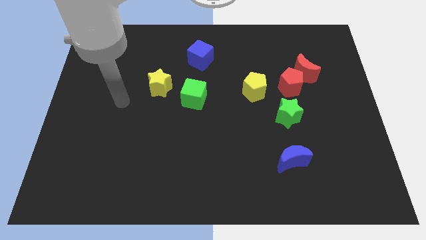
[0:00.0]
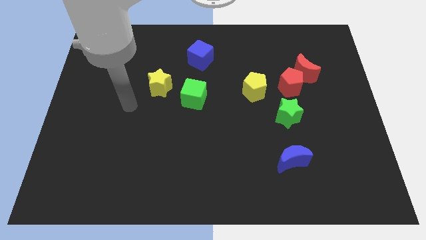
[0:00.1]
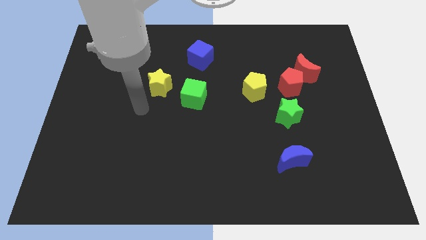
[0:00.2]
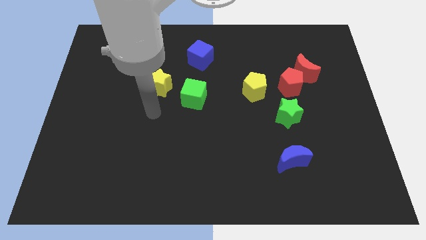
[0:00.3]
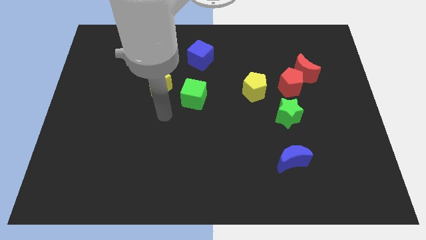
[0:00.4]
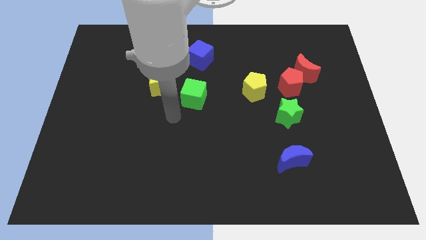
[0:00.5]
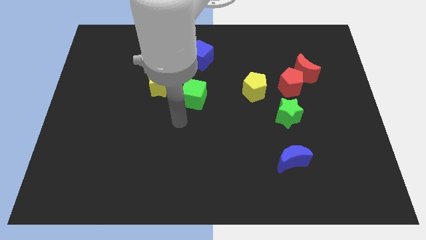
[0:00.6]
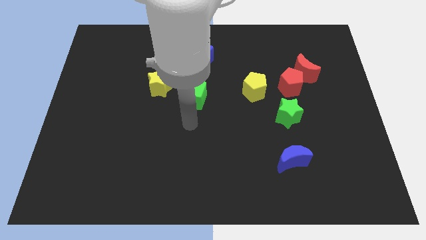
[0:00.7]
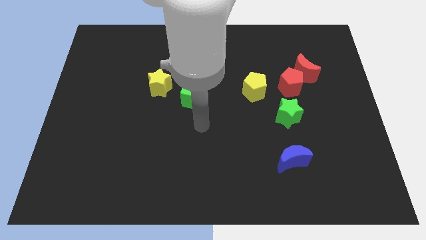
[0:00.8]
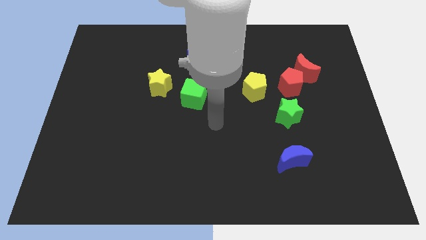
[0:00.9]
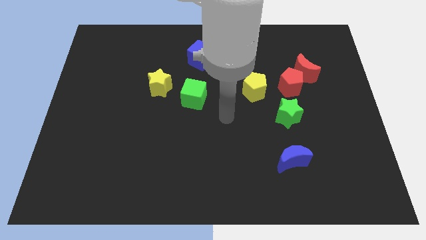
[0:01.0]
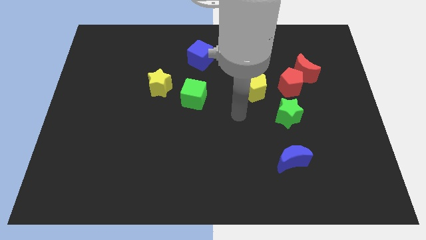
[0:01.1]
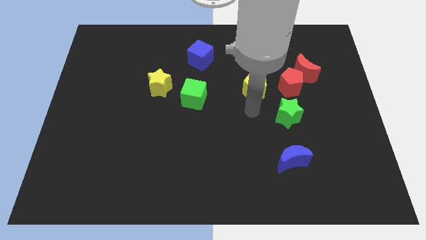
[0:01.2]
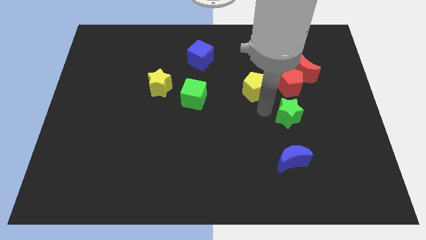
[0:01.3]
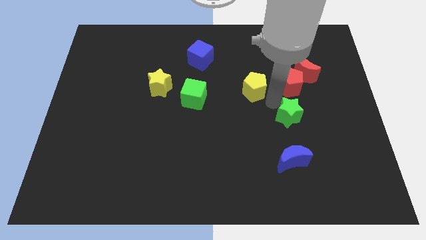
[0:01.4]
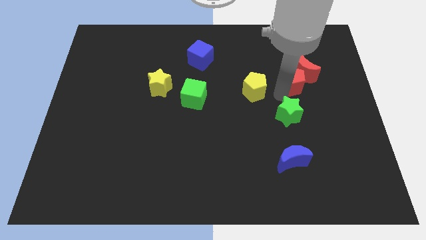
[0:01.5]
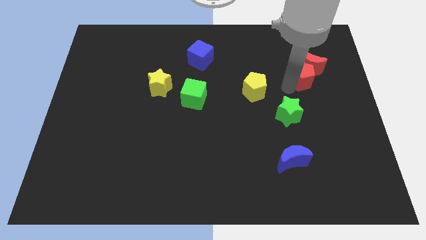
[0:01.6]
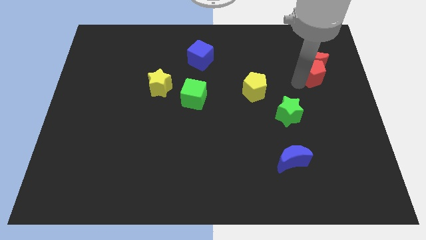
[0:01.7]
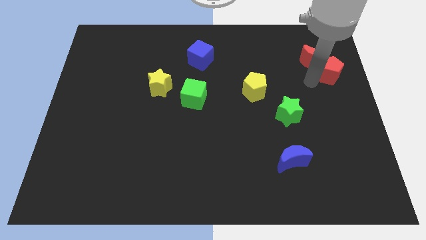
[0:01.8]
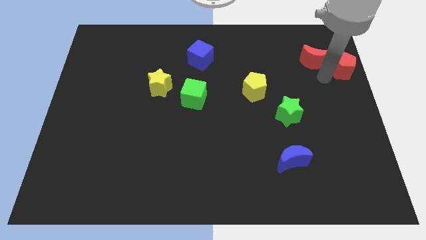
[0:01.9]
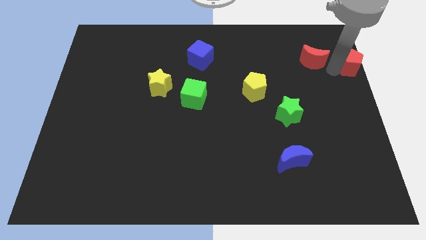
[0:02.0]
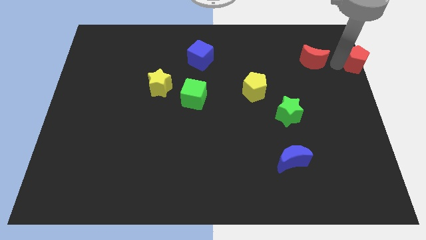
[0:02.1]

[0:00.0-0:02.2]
separate the red moon from the red pentagon

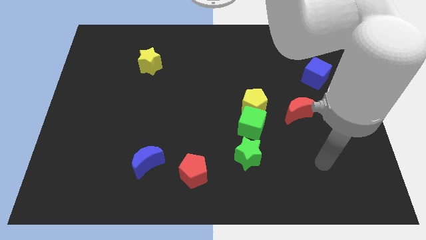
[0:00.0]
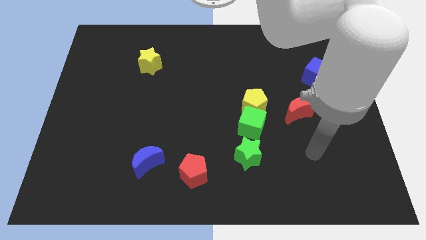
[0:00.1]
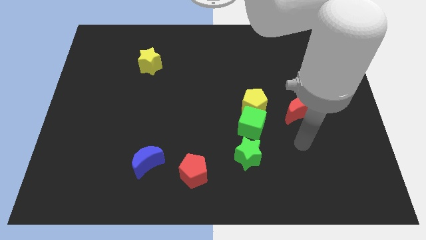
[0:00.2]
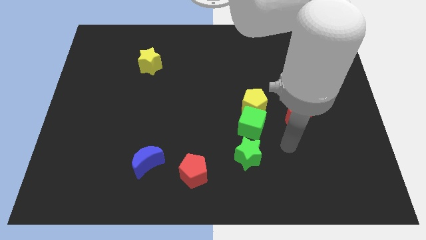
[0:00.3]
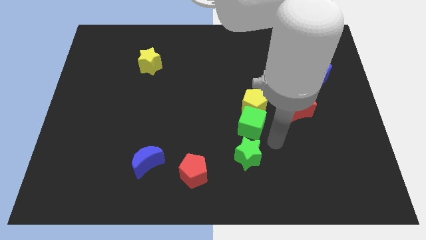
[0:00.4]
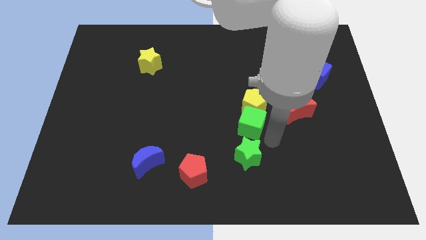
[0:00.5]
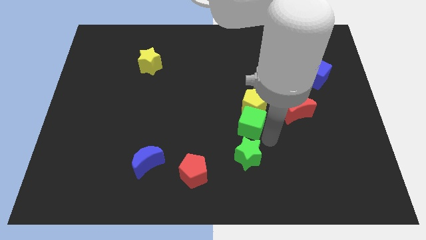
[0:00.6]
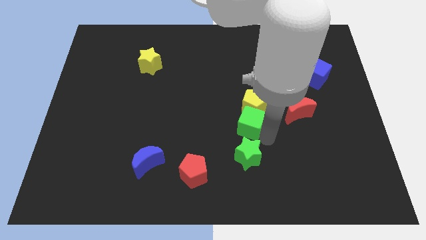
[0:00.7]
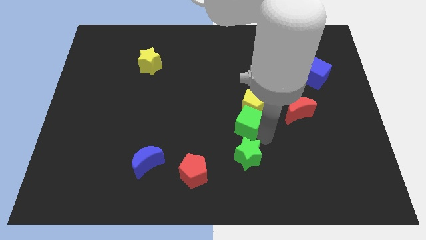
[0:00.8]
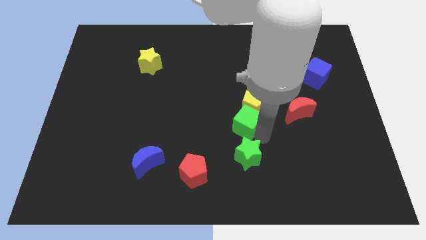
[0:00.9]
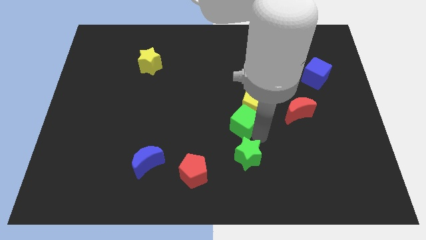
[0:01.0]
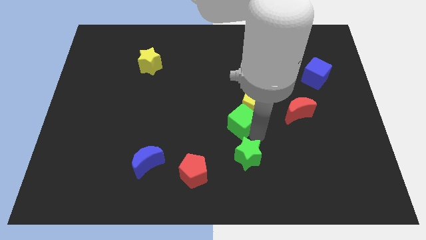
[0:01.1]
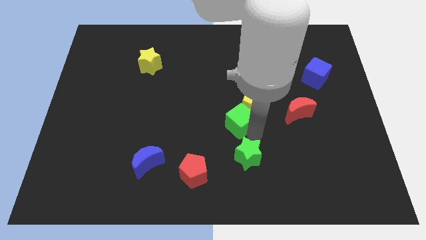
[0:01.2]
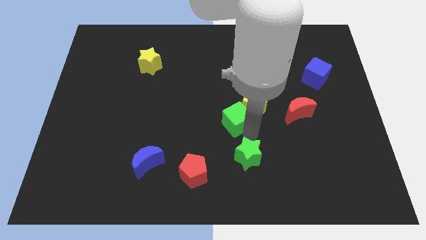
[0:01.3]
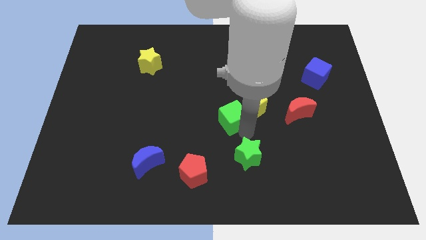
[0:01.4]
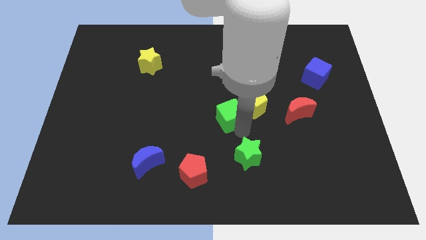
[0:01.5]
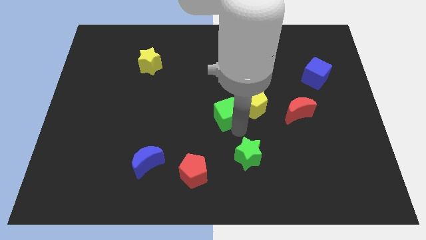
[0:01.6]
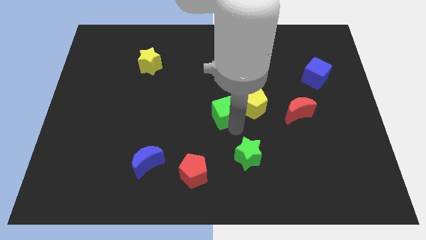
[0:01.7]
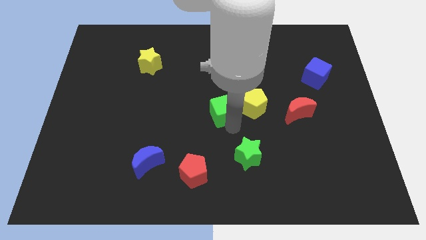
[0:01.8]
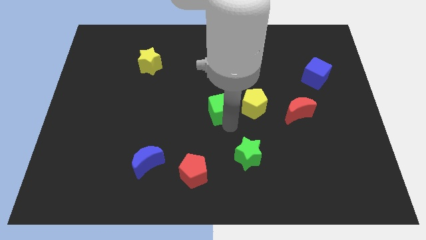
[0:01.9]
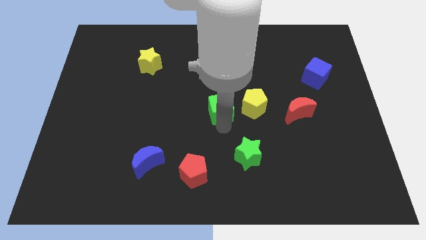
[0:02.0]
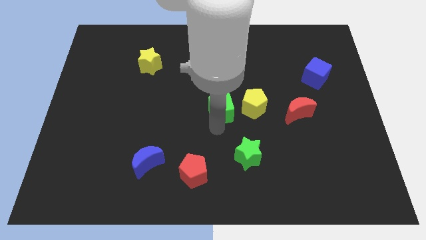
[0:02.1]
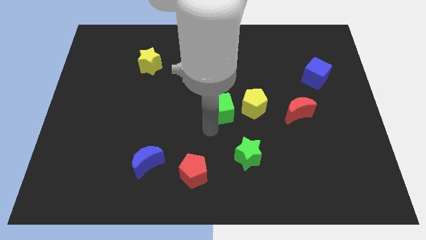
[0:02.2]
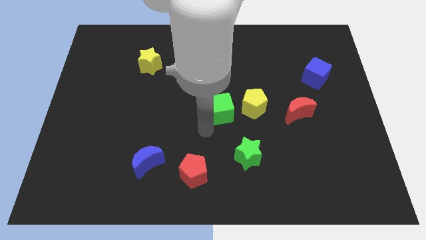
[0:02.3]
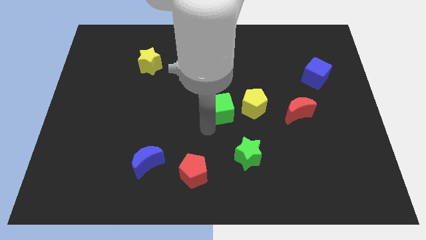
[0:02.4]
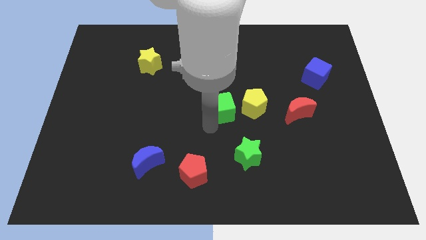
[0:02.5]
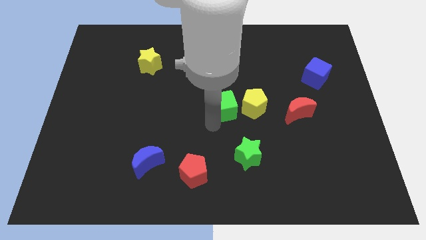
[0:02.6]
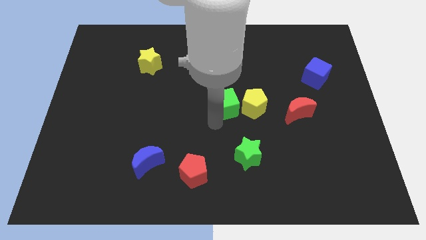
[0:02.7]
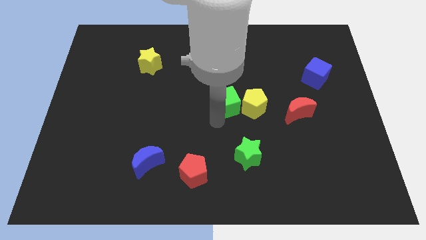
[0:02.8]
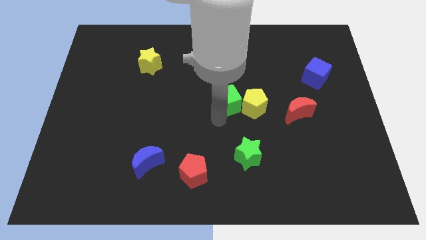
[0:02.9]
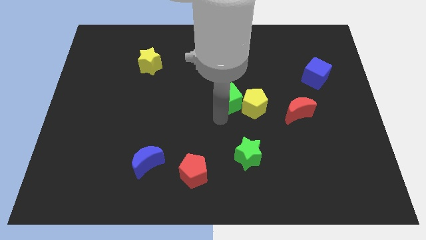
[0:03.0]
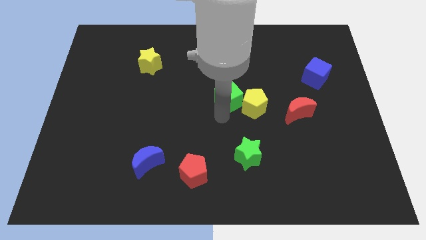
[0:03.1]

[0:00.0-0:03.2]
separate the green cube from the yellow pentagon and green star

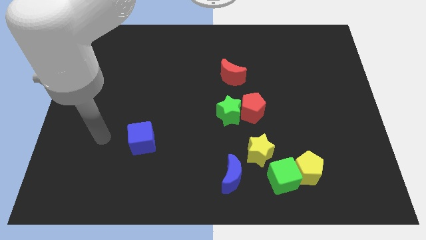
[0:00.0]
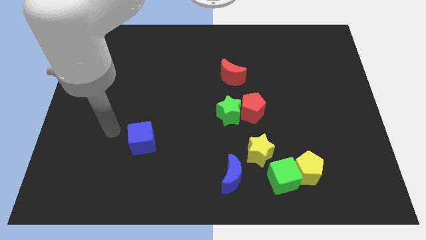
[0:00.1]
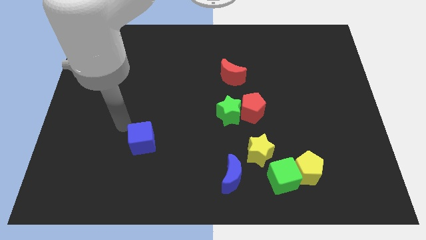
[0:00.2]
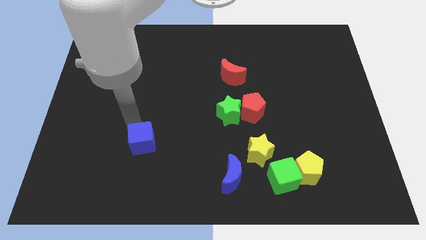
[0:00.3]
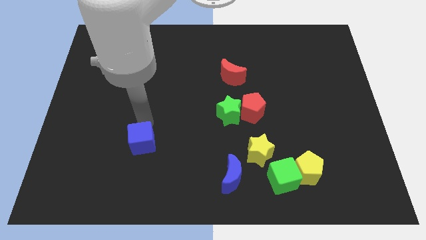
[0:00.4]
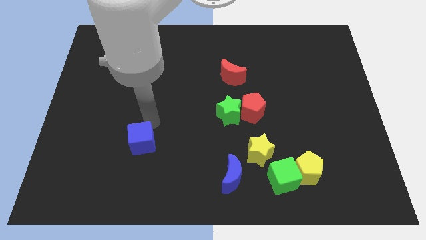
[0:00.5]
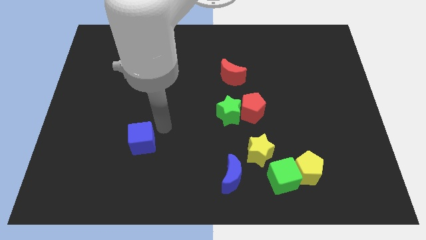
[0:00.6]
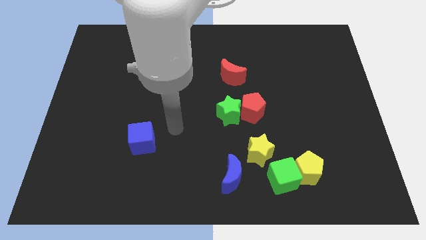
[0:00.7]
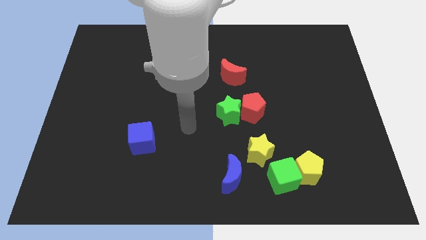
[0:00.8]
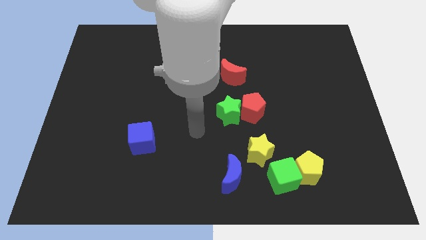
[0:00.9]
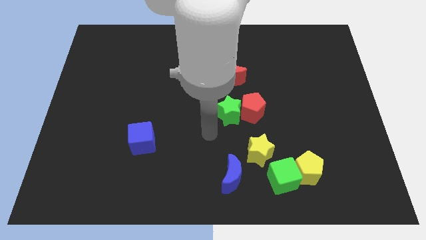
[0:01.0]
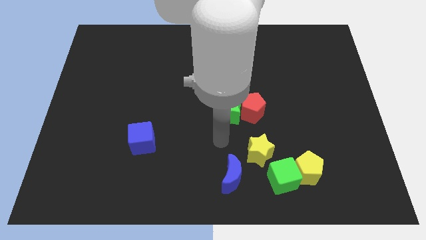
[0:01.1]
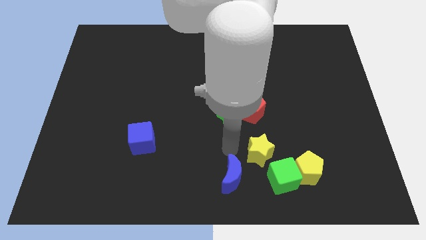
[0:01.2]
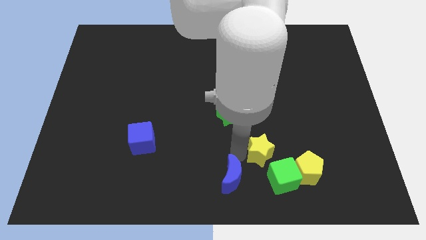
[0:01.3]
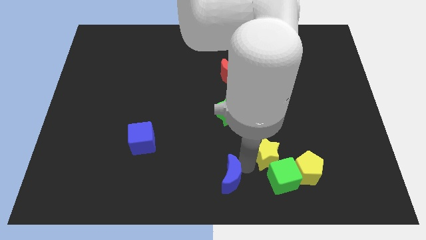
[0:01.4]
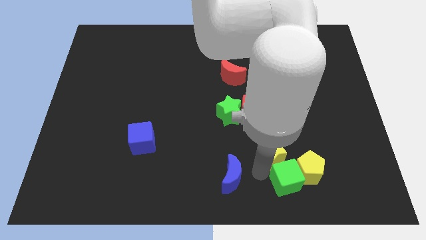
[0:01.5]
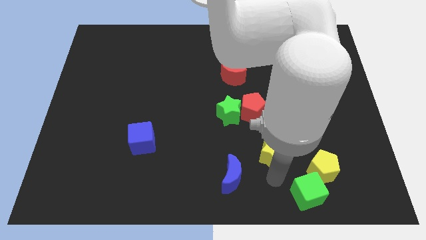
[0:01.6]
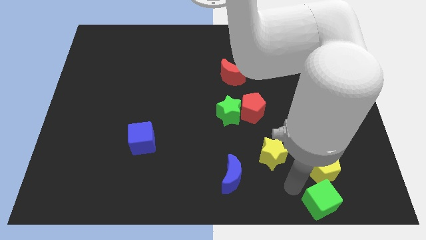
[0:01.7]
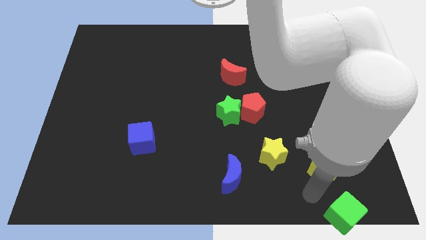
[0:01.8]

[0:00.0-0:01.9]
move the yellow pentagon away from the green cube

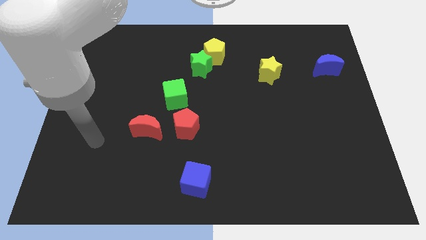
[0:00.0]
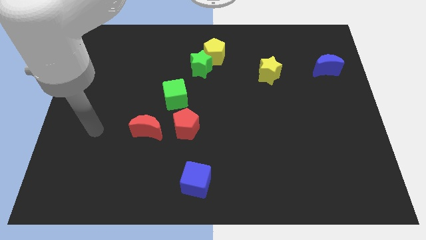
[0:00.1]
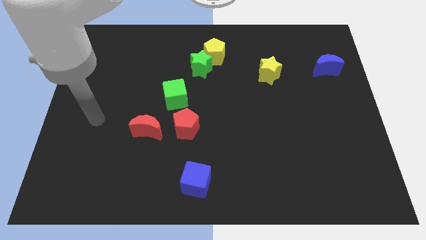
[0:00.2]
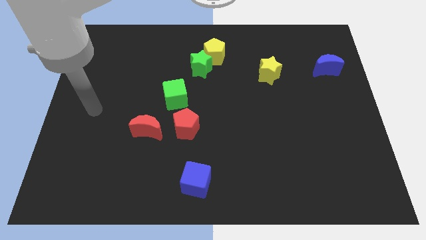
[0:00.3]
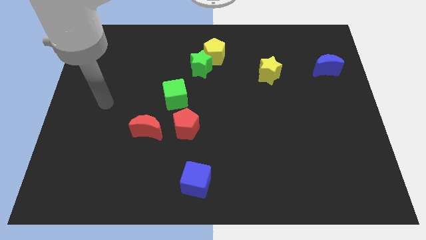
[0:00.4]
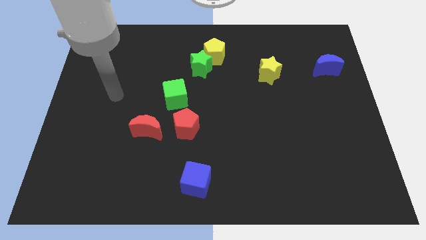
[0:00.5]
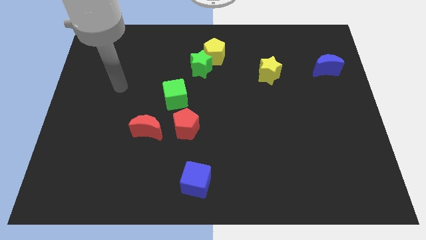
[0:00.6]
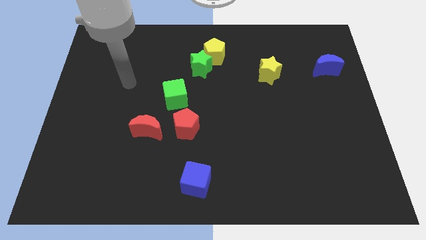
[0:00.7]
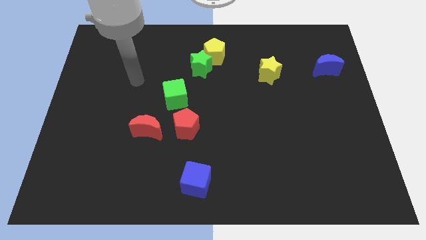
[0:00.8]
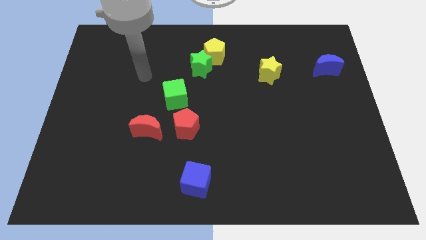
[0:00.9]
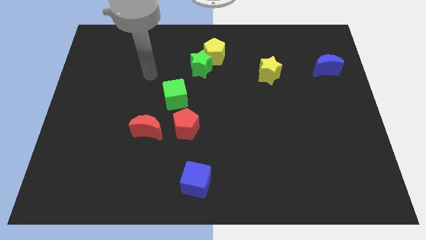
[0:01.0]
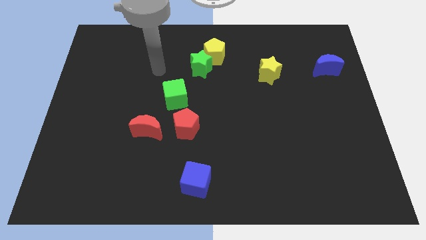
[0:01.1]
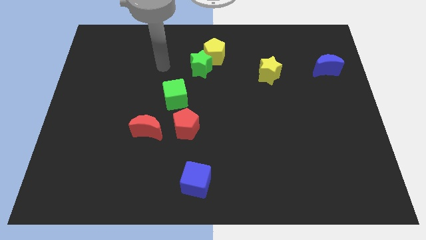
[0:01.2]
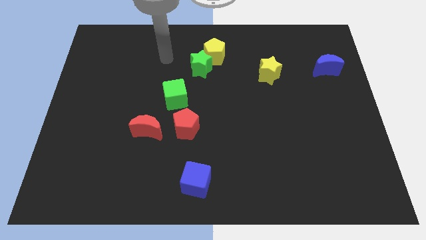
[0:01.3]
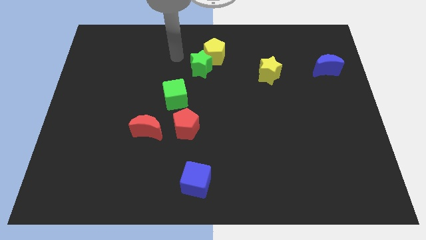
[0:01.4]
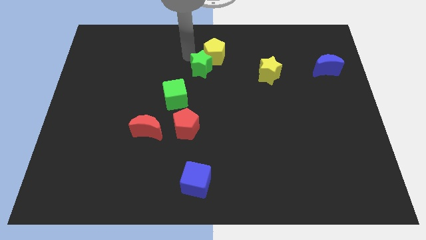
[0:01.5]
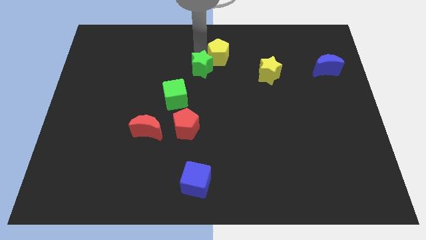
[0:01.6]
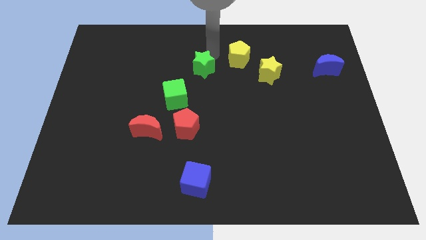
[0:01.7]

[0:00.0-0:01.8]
separate the green star from the yellow pentagon

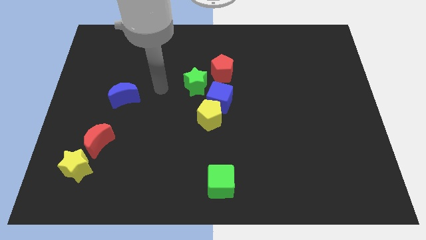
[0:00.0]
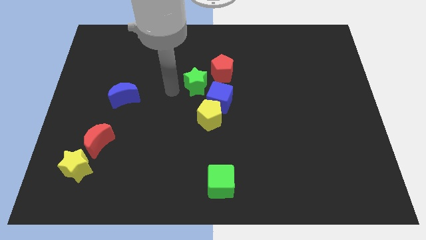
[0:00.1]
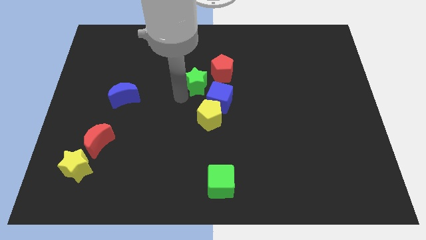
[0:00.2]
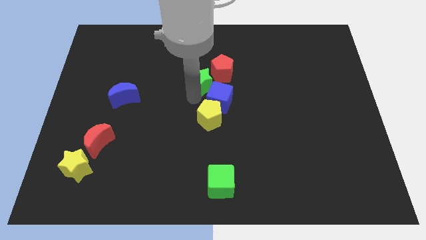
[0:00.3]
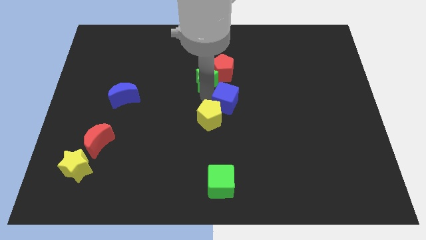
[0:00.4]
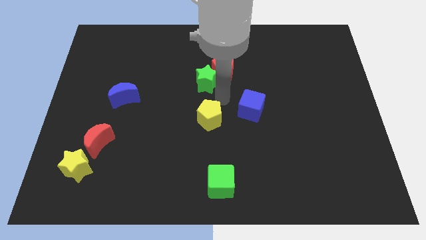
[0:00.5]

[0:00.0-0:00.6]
move the yellow pentagon away from the blue cube
